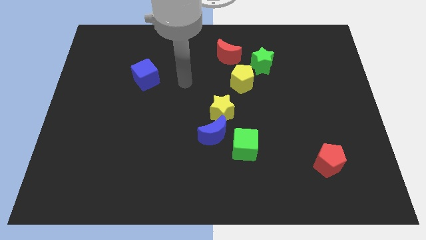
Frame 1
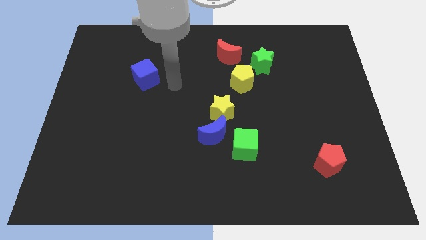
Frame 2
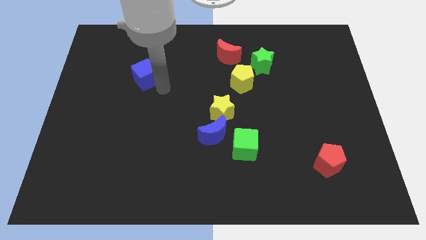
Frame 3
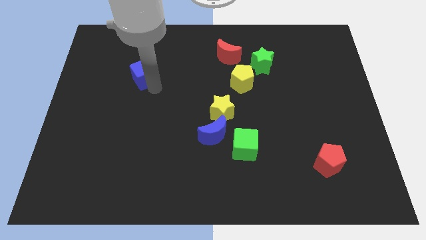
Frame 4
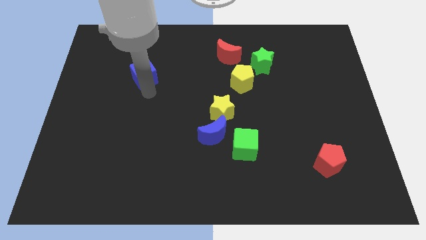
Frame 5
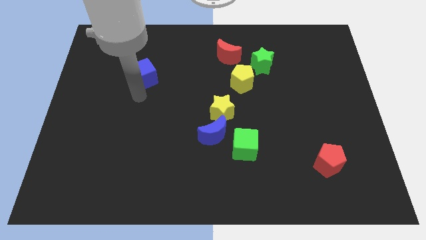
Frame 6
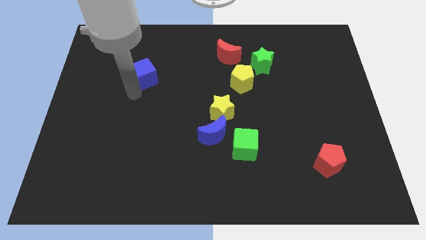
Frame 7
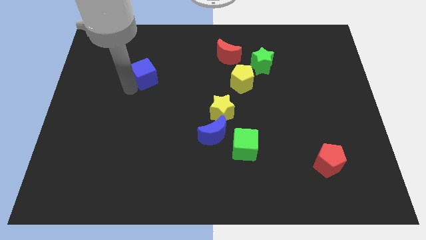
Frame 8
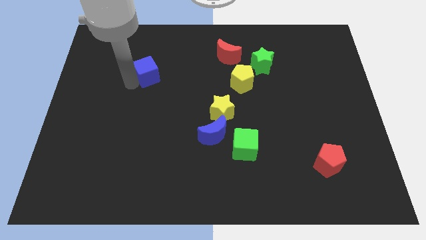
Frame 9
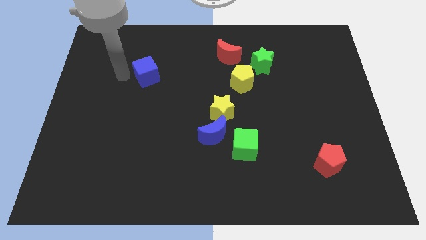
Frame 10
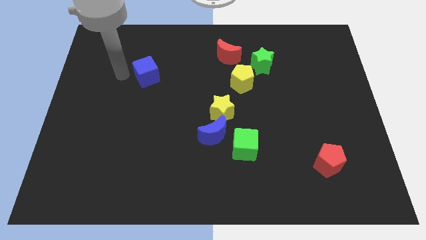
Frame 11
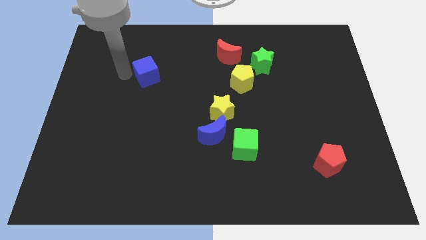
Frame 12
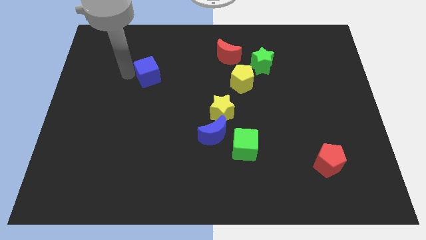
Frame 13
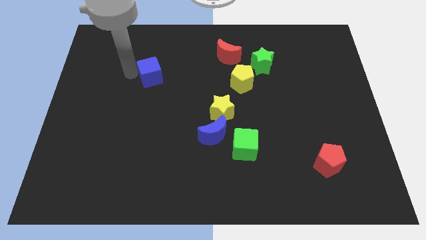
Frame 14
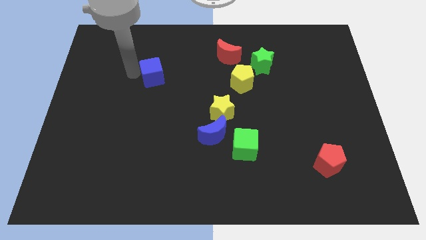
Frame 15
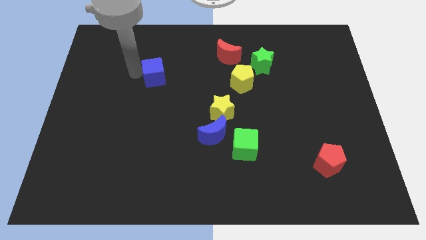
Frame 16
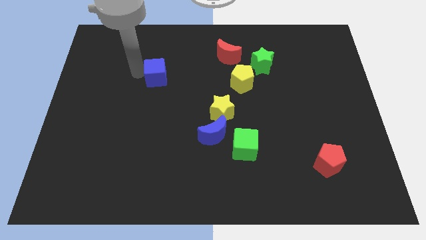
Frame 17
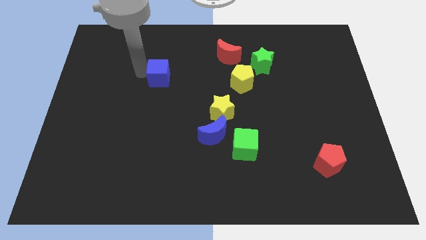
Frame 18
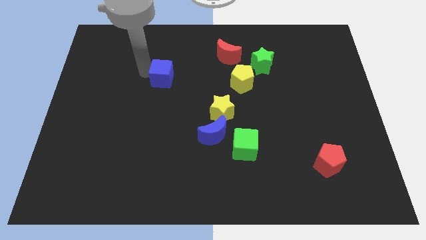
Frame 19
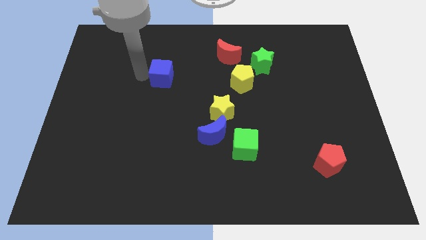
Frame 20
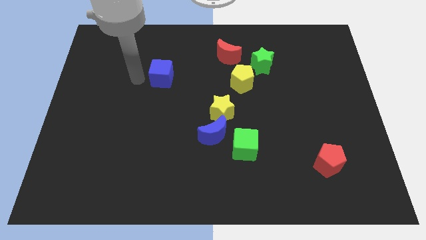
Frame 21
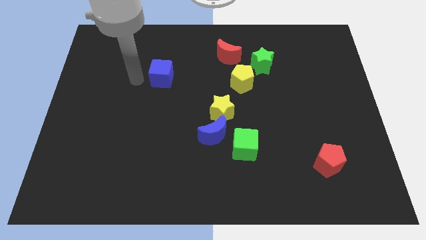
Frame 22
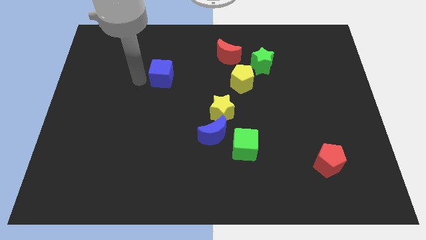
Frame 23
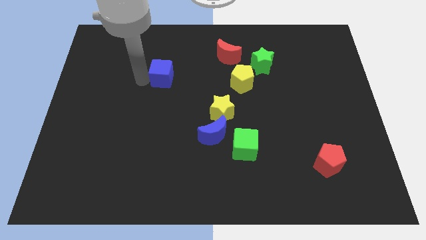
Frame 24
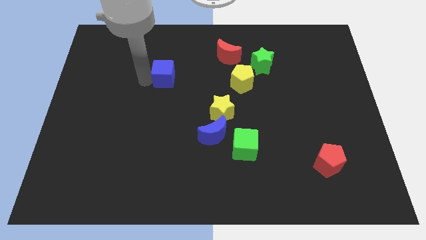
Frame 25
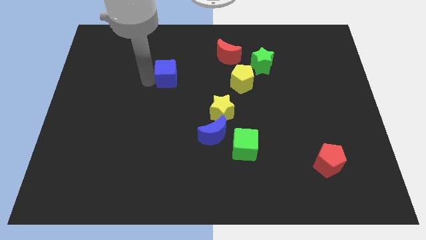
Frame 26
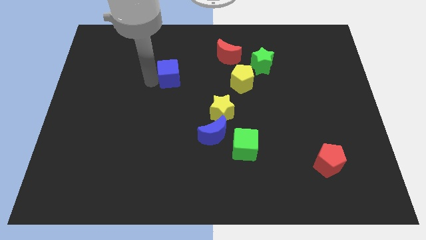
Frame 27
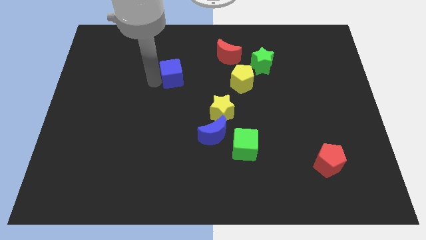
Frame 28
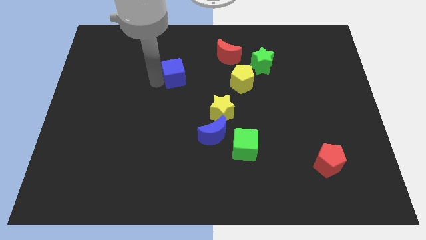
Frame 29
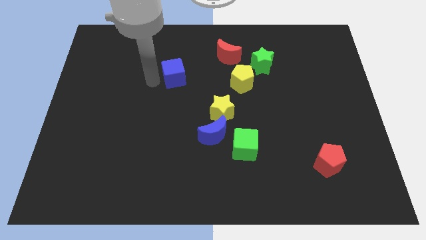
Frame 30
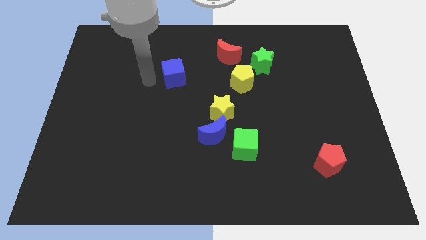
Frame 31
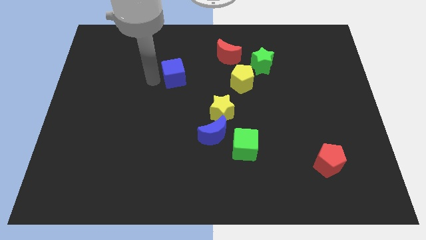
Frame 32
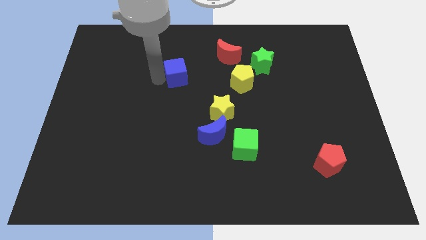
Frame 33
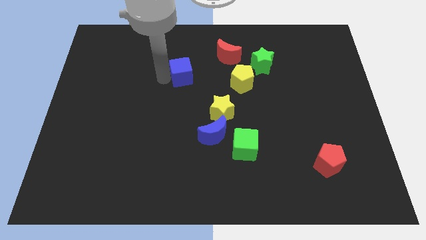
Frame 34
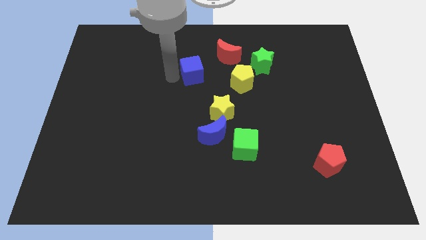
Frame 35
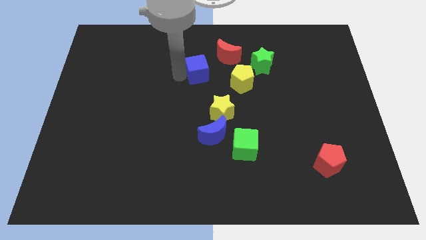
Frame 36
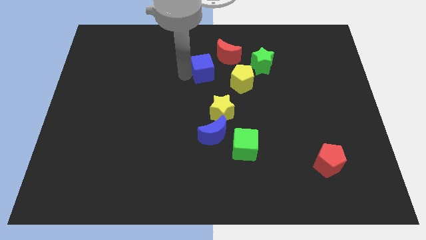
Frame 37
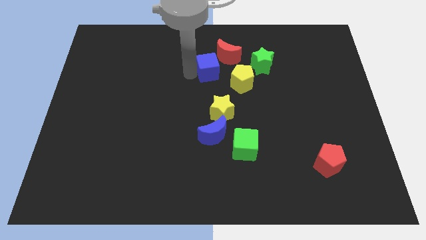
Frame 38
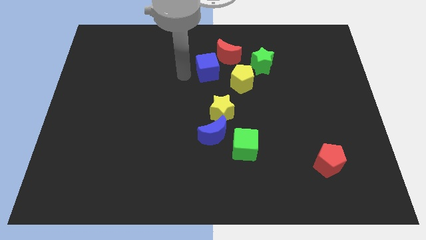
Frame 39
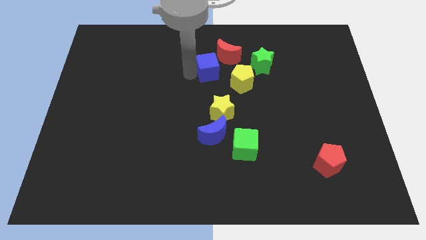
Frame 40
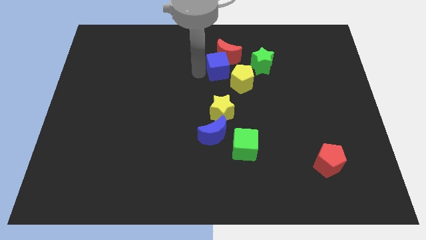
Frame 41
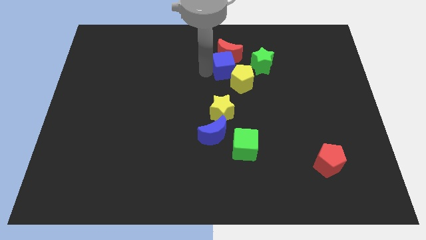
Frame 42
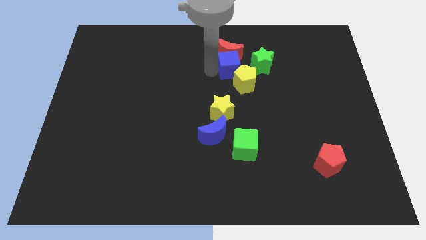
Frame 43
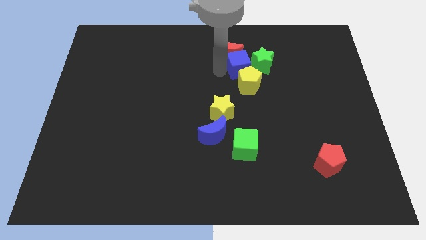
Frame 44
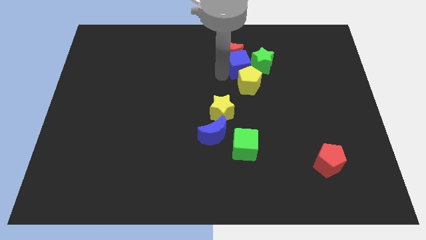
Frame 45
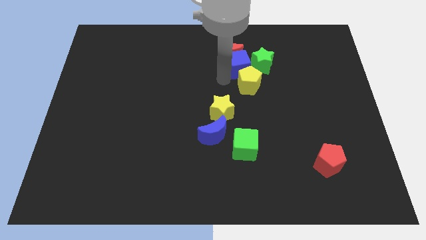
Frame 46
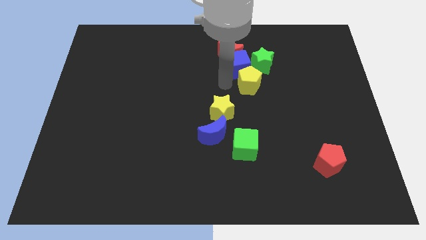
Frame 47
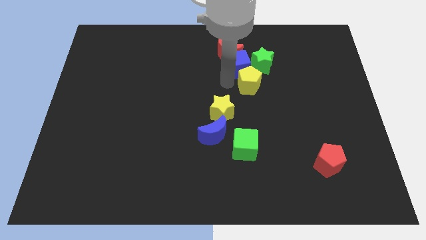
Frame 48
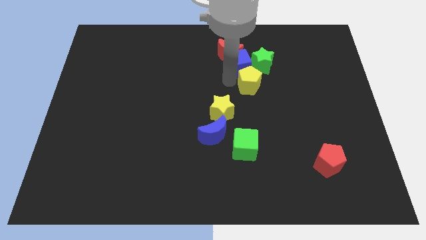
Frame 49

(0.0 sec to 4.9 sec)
move the blue cube to the right side of the red moon

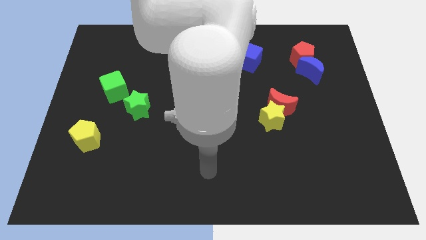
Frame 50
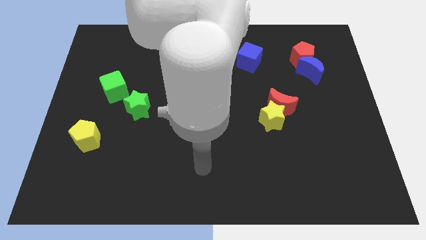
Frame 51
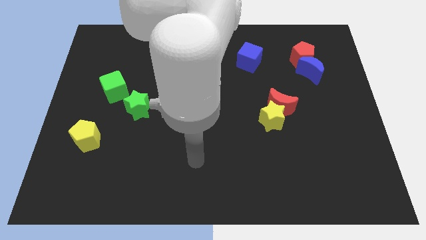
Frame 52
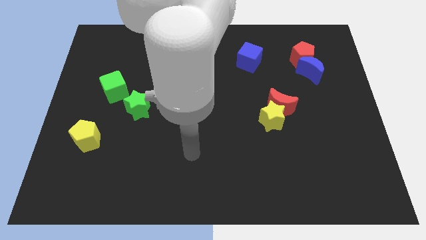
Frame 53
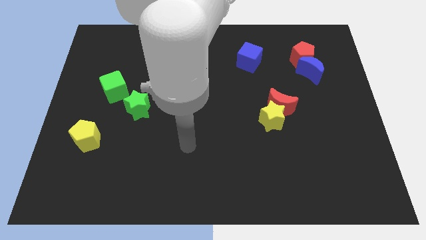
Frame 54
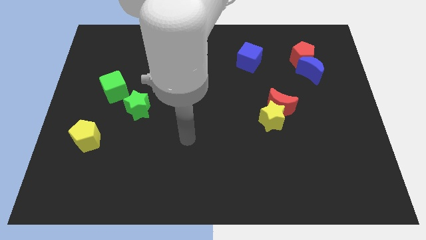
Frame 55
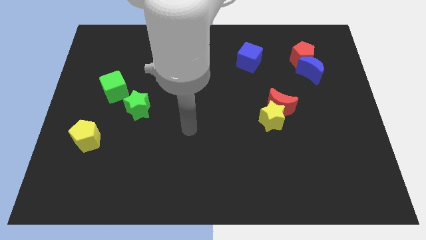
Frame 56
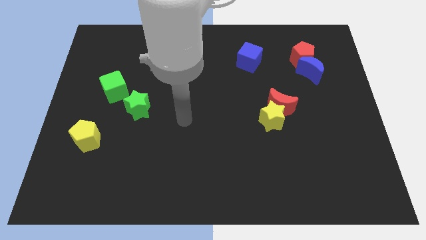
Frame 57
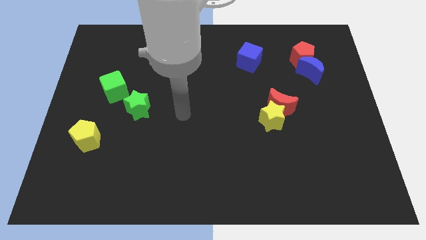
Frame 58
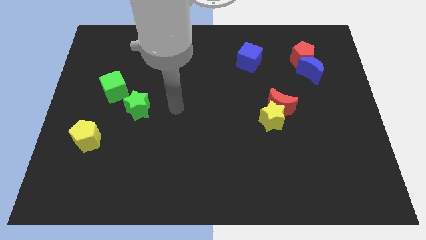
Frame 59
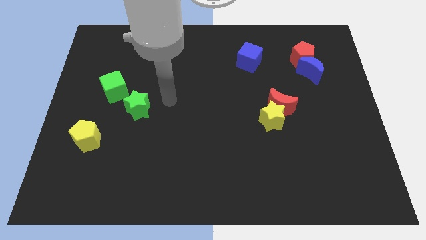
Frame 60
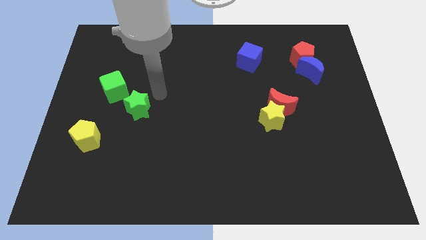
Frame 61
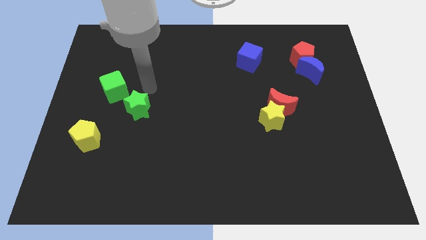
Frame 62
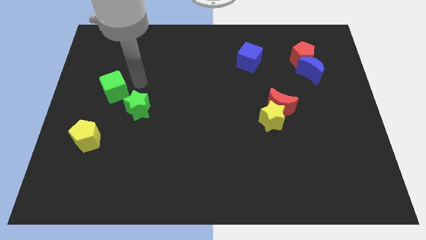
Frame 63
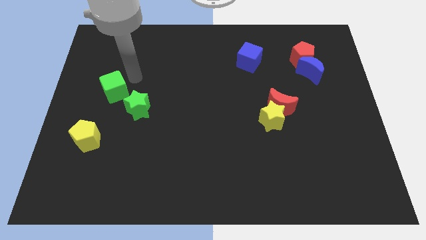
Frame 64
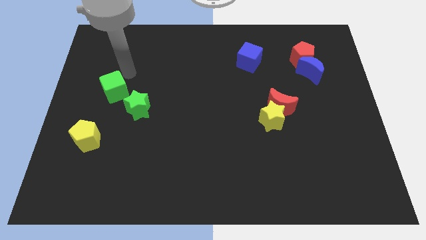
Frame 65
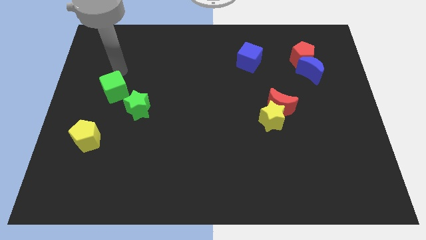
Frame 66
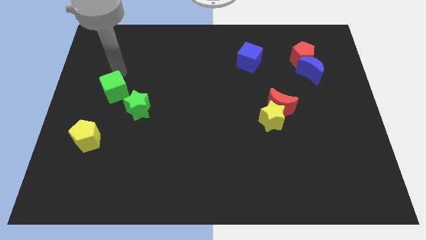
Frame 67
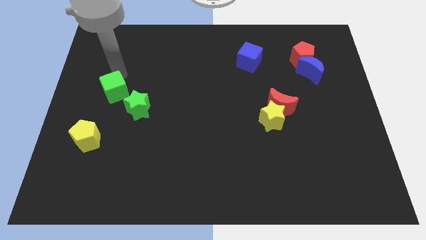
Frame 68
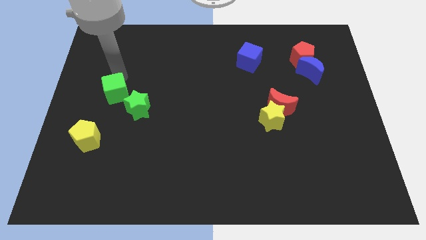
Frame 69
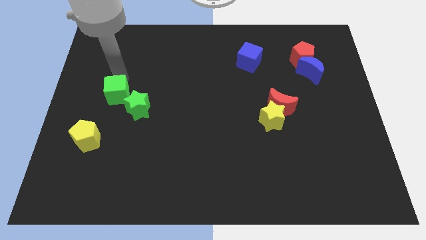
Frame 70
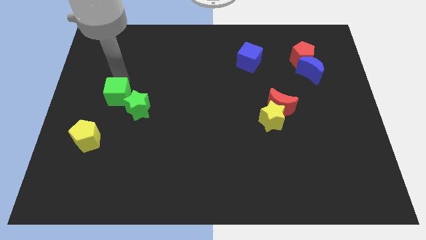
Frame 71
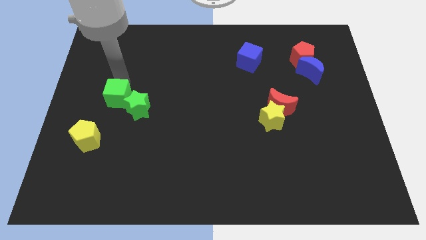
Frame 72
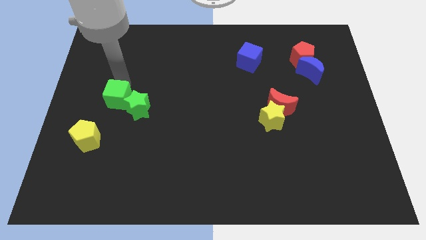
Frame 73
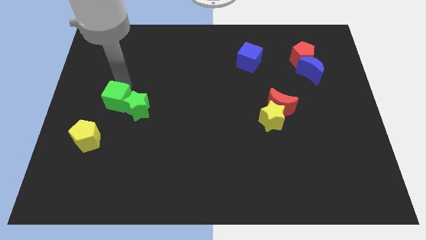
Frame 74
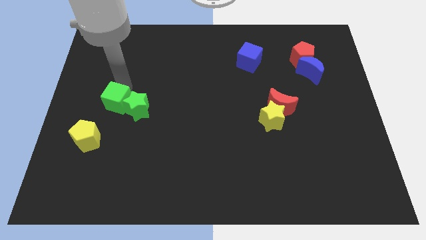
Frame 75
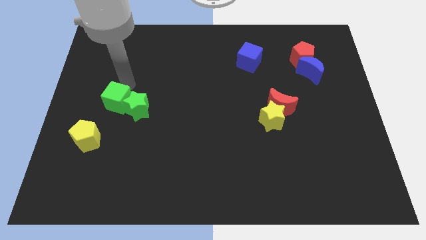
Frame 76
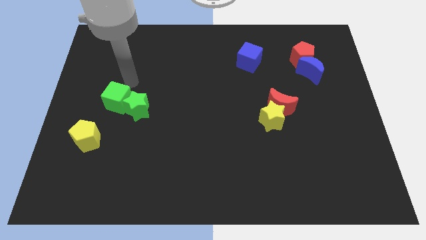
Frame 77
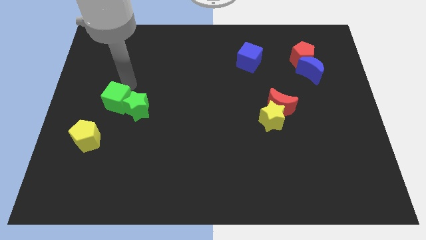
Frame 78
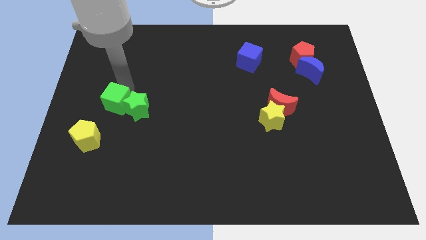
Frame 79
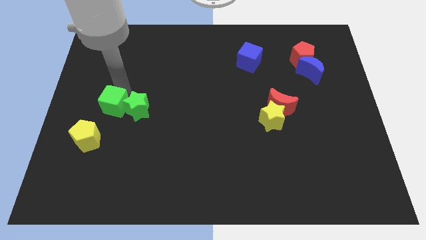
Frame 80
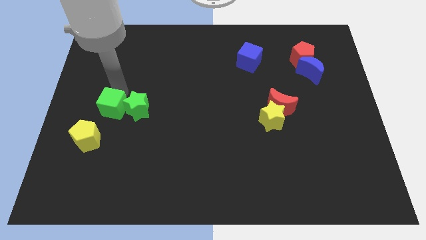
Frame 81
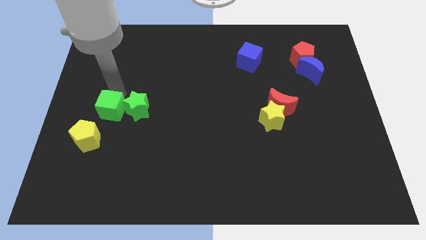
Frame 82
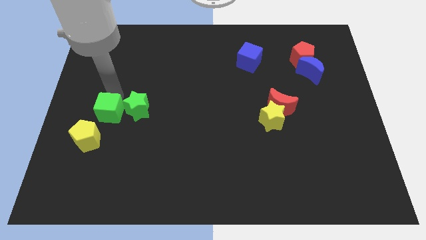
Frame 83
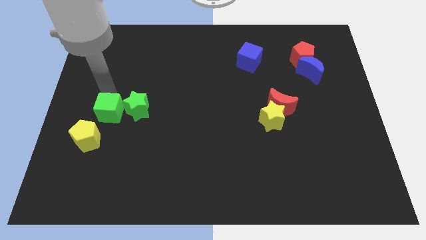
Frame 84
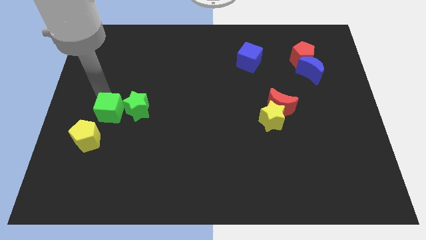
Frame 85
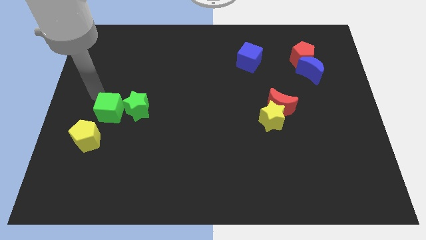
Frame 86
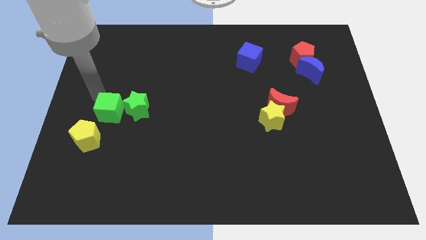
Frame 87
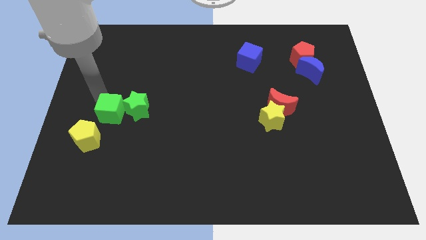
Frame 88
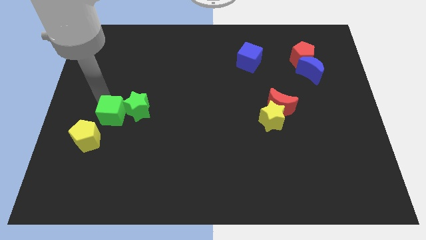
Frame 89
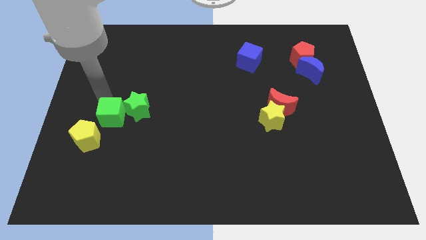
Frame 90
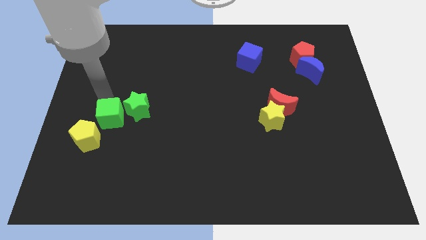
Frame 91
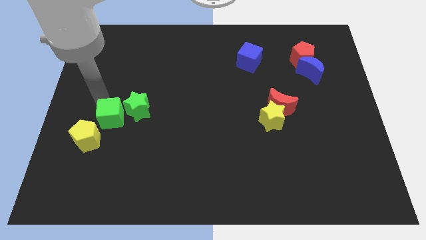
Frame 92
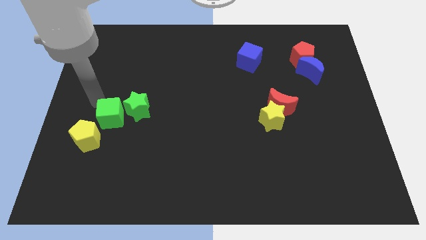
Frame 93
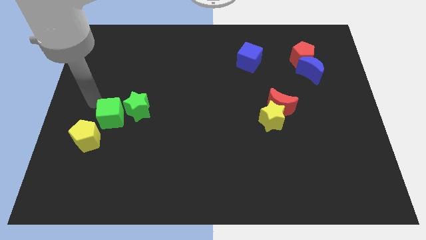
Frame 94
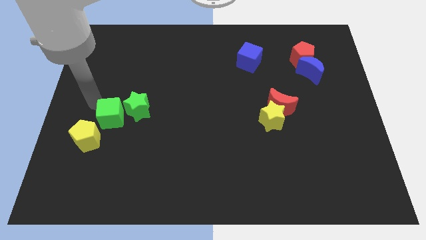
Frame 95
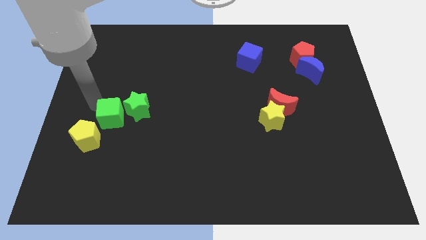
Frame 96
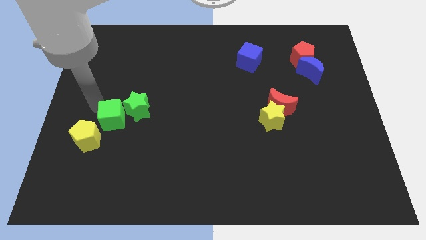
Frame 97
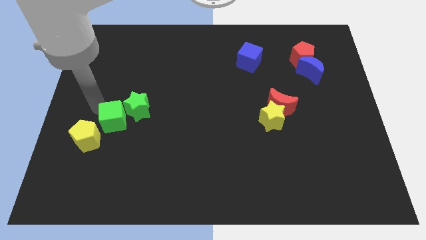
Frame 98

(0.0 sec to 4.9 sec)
slide the green cube just right of the yellow pentagon
